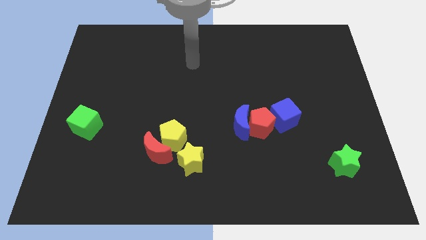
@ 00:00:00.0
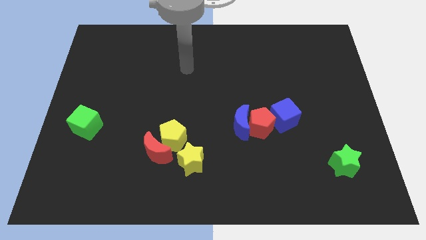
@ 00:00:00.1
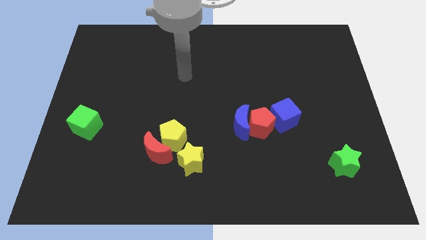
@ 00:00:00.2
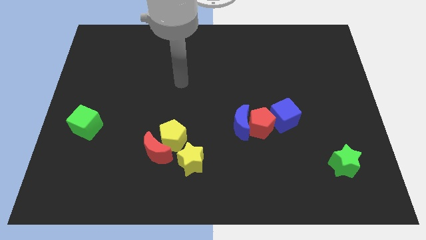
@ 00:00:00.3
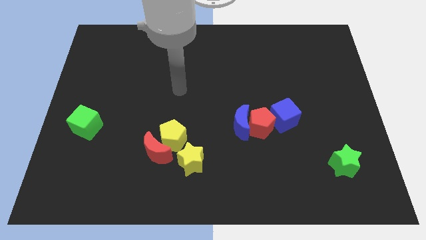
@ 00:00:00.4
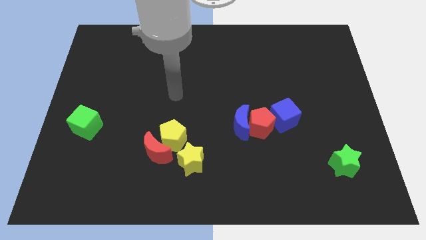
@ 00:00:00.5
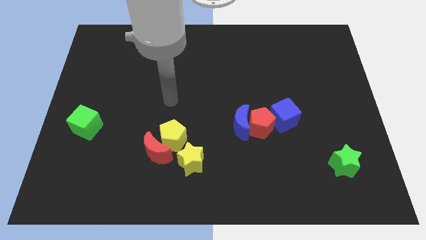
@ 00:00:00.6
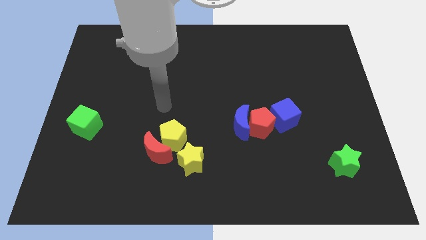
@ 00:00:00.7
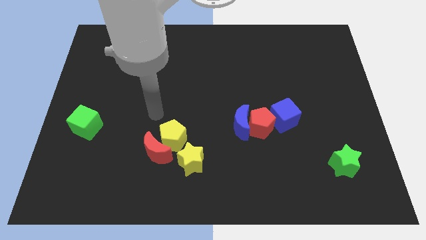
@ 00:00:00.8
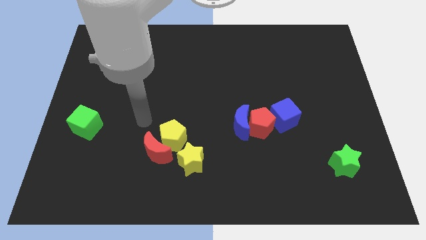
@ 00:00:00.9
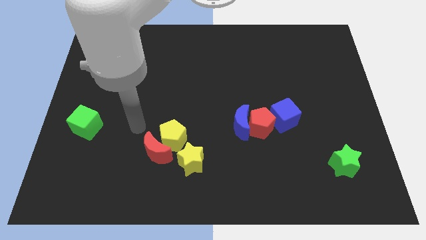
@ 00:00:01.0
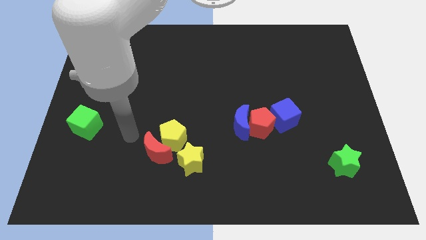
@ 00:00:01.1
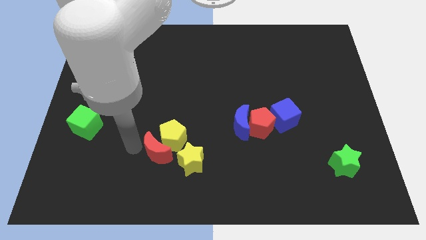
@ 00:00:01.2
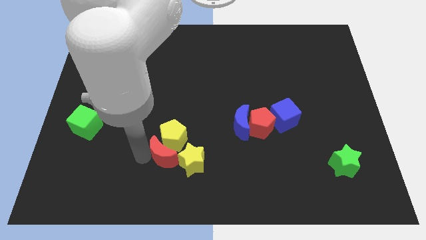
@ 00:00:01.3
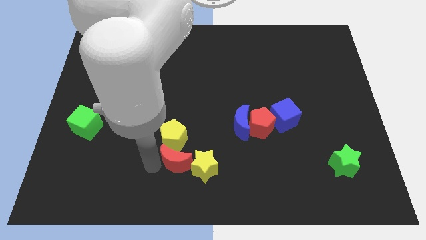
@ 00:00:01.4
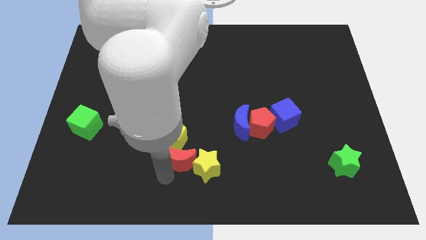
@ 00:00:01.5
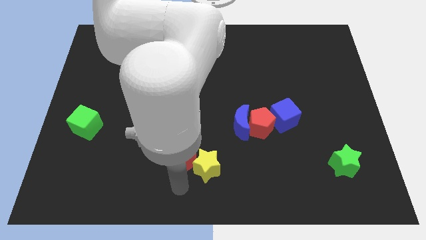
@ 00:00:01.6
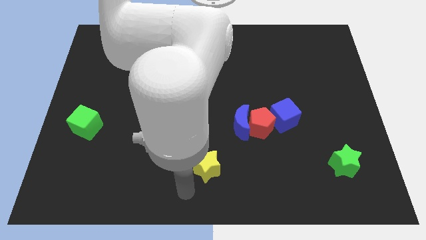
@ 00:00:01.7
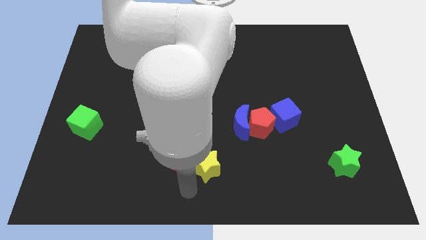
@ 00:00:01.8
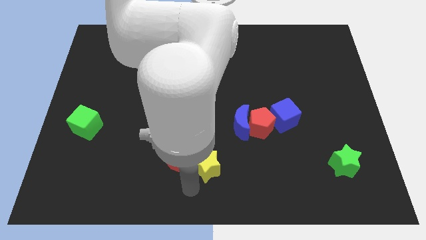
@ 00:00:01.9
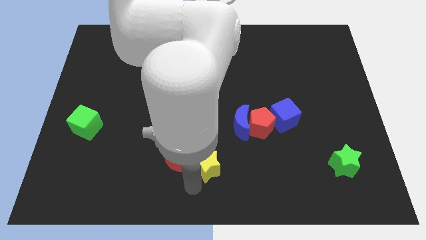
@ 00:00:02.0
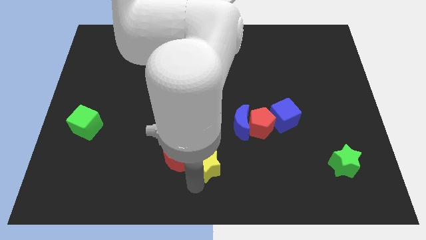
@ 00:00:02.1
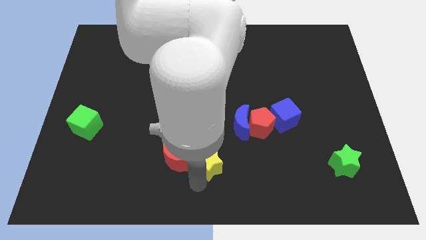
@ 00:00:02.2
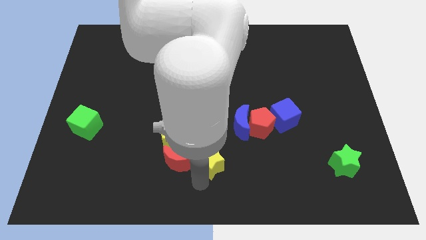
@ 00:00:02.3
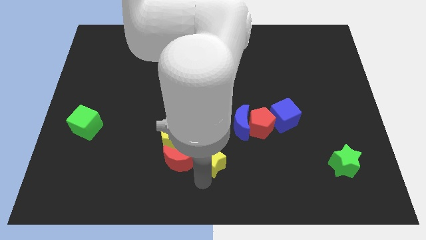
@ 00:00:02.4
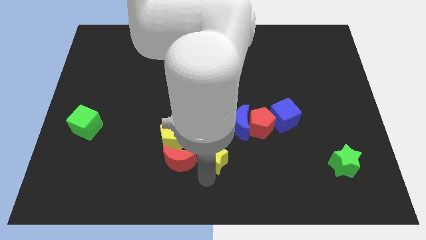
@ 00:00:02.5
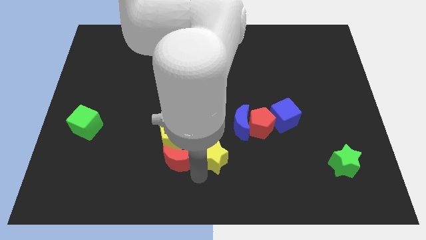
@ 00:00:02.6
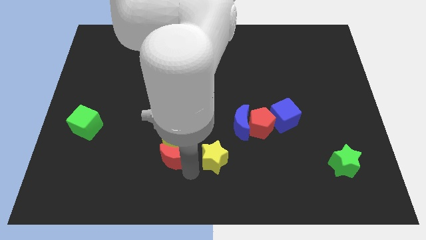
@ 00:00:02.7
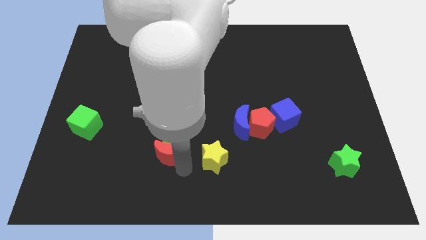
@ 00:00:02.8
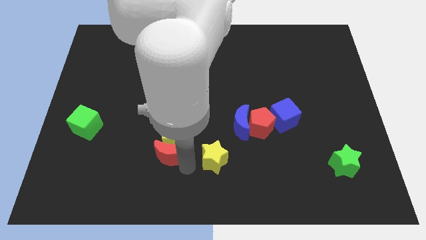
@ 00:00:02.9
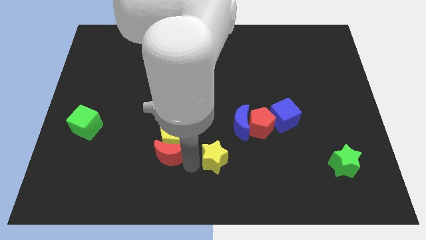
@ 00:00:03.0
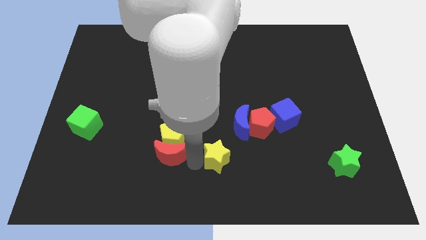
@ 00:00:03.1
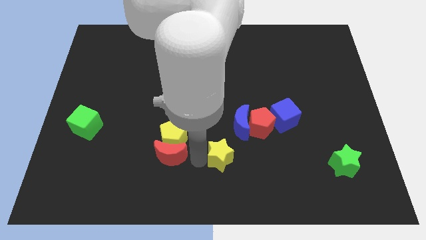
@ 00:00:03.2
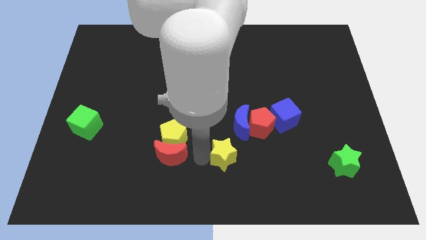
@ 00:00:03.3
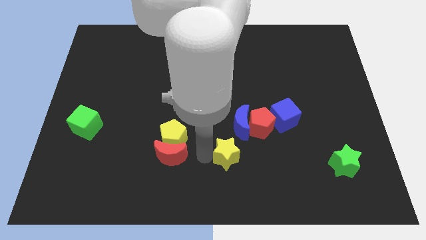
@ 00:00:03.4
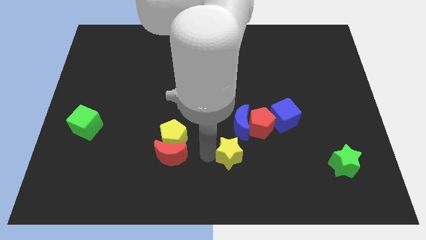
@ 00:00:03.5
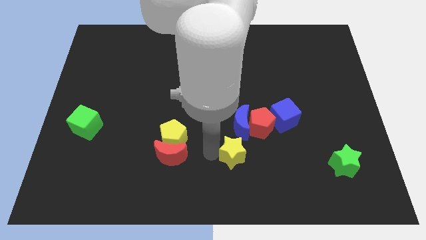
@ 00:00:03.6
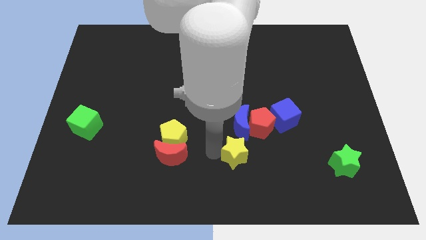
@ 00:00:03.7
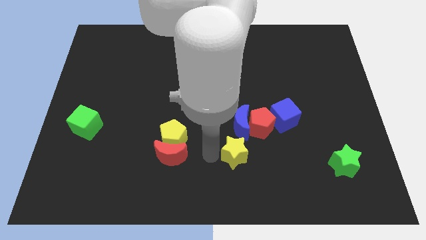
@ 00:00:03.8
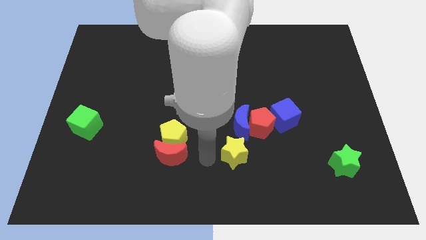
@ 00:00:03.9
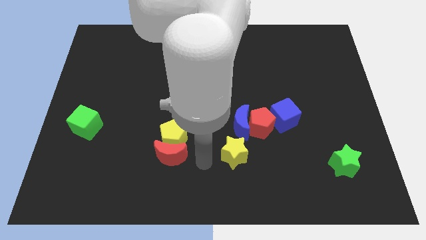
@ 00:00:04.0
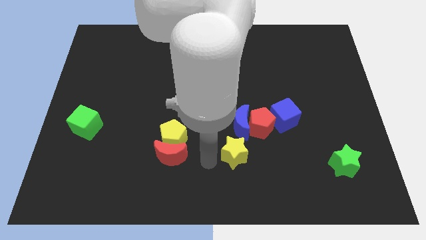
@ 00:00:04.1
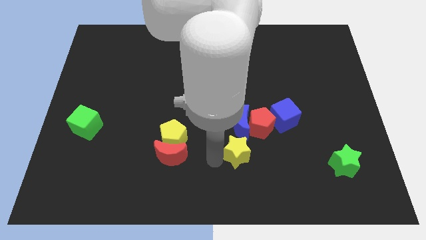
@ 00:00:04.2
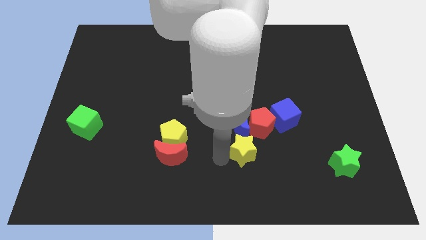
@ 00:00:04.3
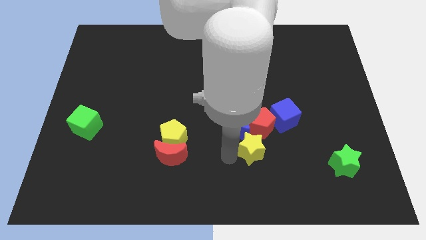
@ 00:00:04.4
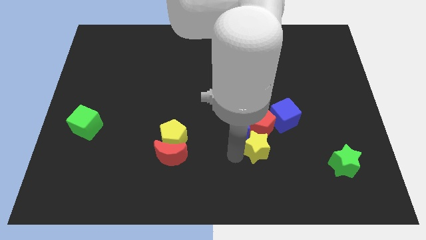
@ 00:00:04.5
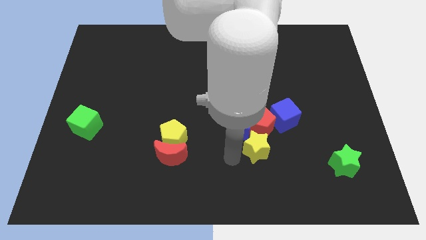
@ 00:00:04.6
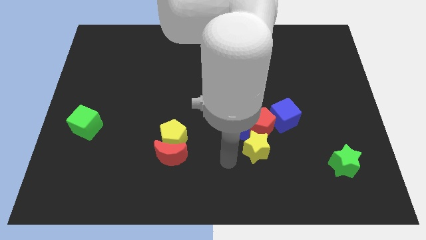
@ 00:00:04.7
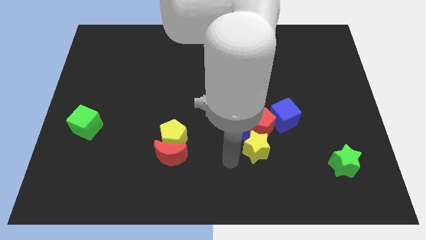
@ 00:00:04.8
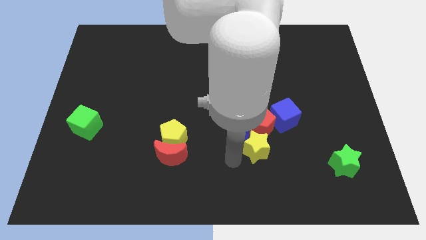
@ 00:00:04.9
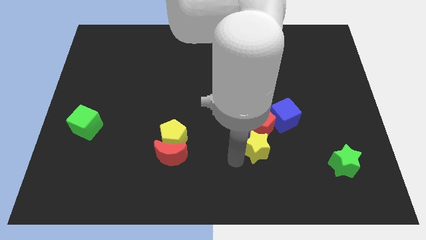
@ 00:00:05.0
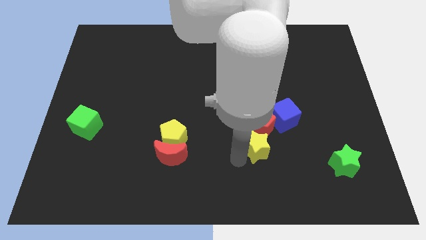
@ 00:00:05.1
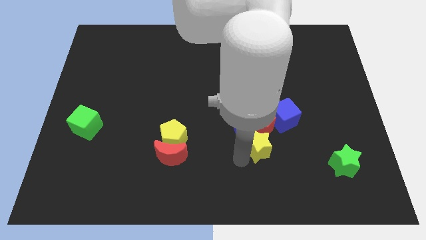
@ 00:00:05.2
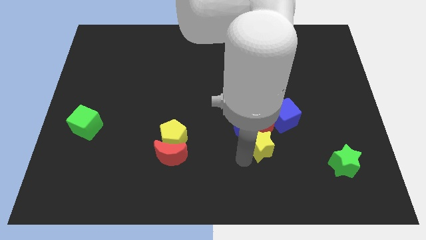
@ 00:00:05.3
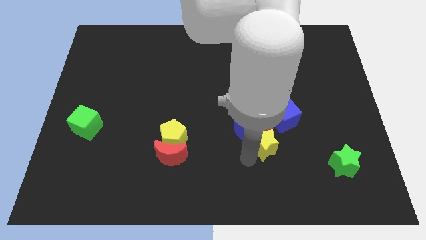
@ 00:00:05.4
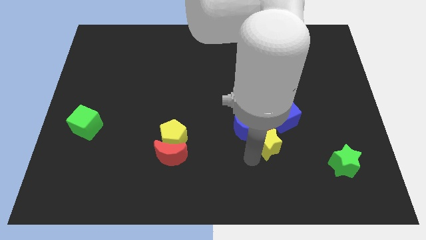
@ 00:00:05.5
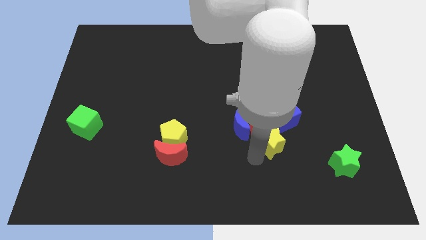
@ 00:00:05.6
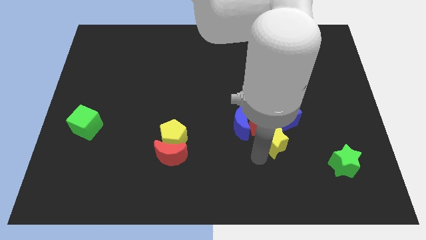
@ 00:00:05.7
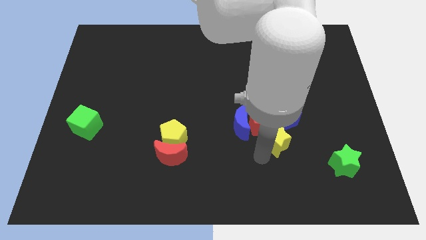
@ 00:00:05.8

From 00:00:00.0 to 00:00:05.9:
put the yellow star to the right side of the blue moon

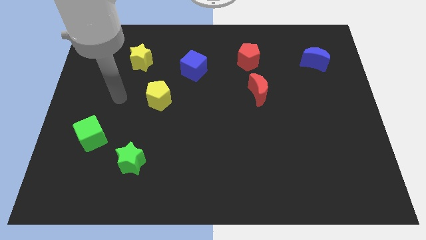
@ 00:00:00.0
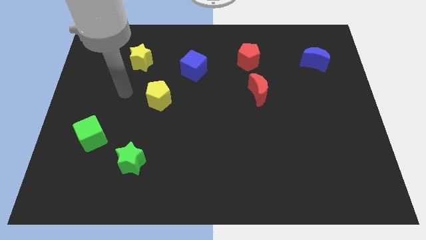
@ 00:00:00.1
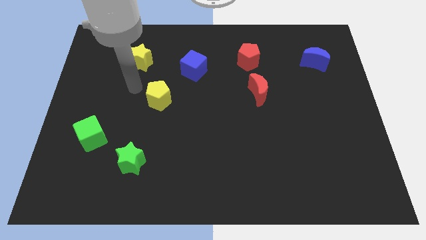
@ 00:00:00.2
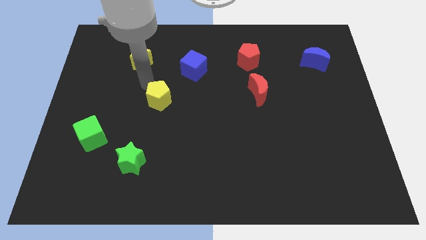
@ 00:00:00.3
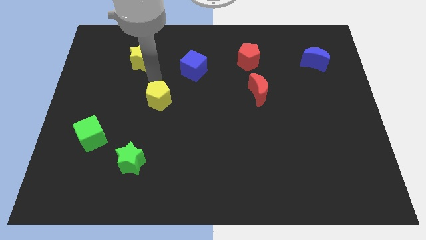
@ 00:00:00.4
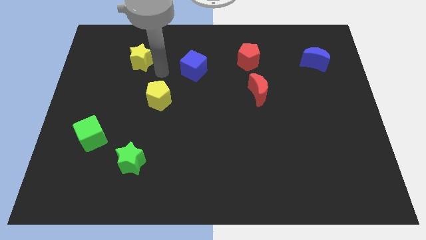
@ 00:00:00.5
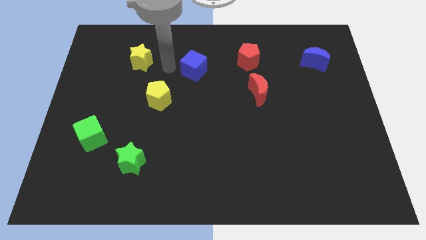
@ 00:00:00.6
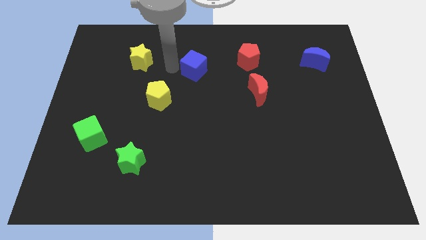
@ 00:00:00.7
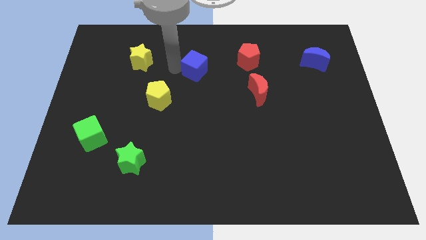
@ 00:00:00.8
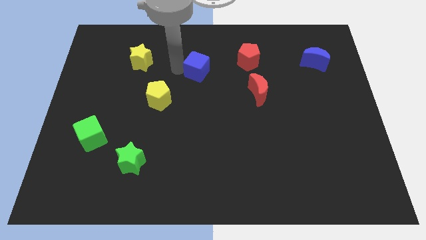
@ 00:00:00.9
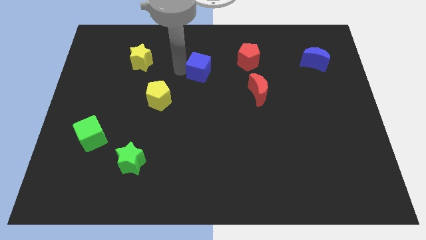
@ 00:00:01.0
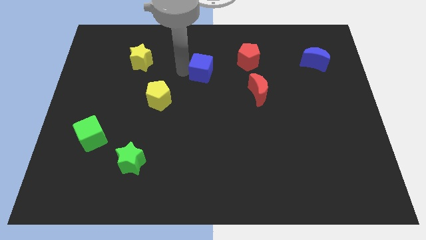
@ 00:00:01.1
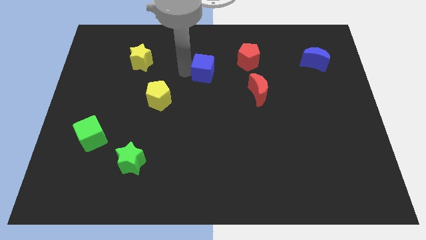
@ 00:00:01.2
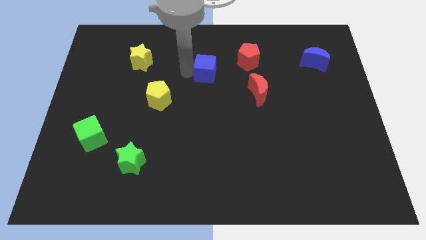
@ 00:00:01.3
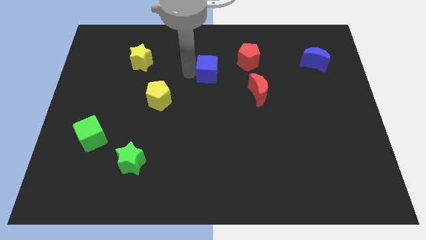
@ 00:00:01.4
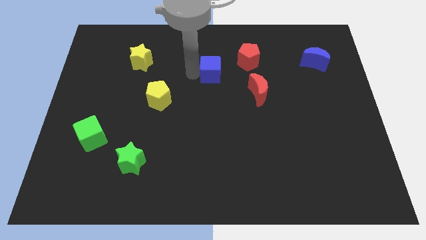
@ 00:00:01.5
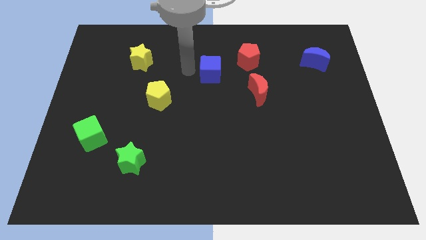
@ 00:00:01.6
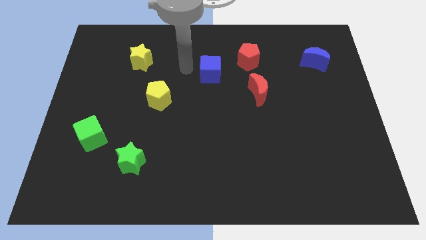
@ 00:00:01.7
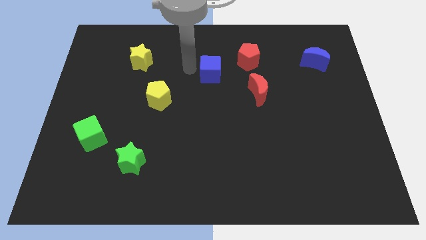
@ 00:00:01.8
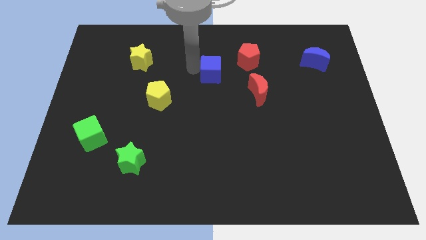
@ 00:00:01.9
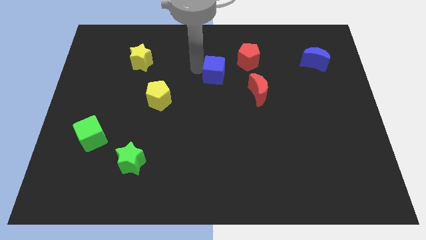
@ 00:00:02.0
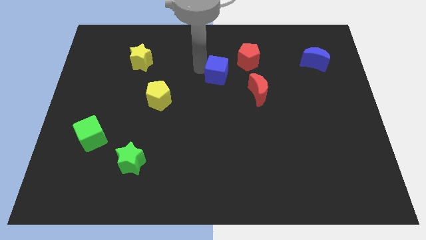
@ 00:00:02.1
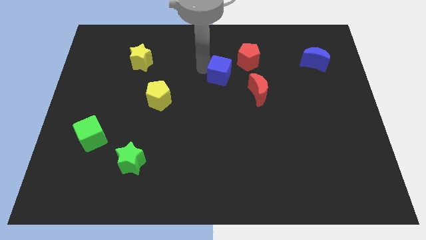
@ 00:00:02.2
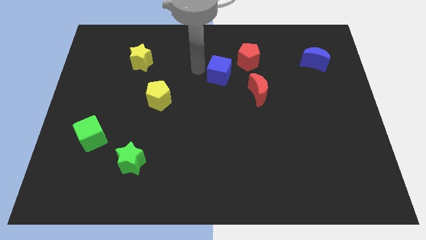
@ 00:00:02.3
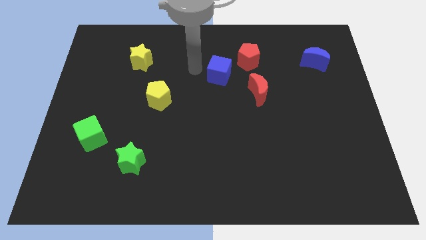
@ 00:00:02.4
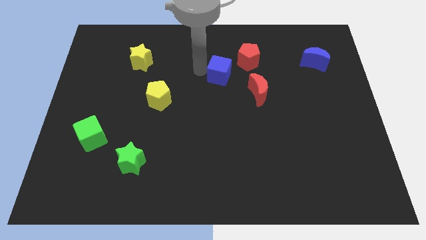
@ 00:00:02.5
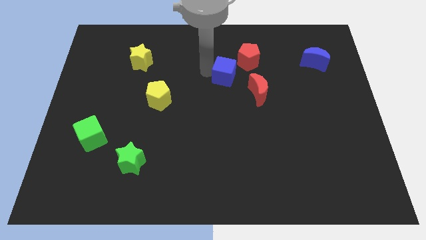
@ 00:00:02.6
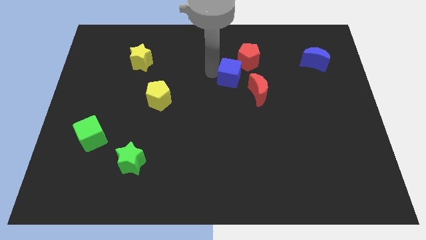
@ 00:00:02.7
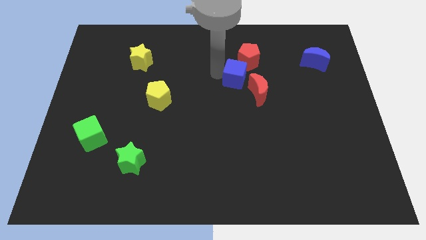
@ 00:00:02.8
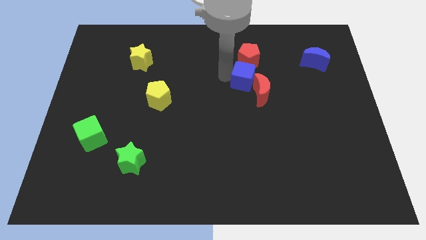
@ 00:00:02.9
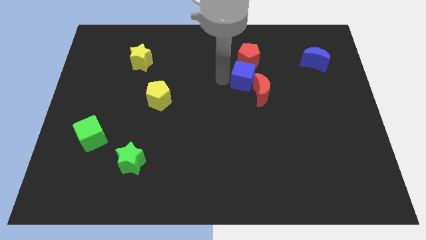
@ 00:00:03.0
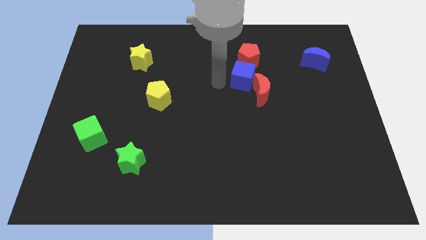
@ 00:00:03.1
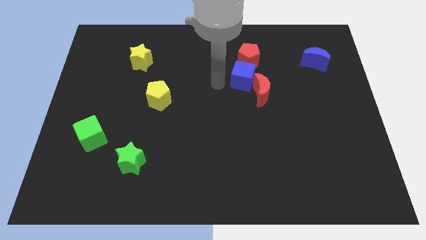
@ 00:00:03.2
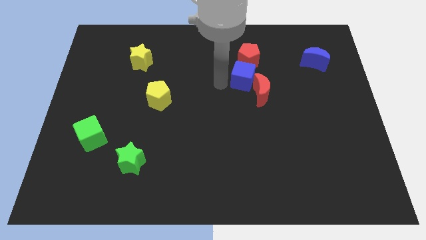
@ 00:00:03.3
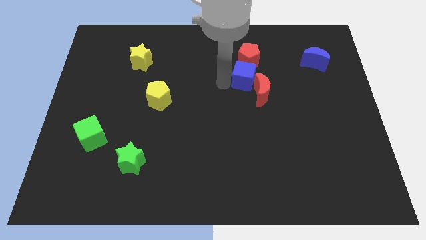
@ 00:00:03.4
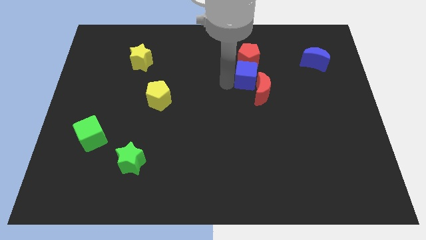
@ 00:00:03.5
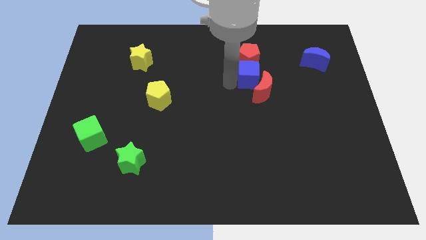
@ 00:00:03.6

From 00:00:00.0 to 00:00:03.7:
move the blue cube diagonally down and to the right of the red pentagon
